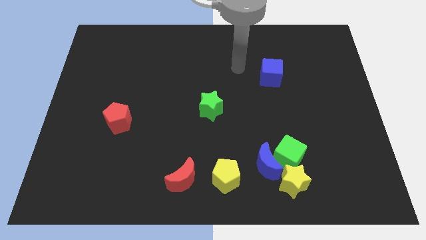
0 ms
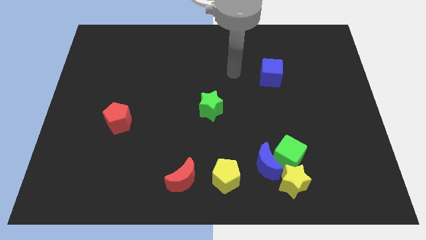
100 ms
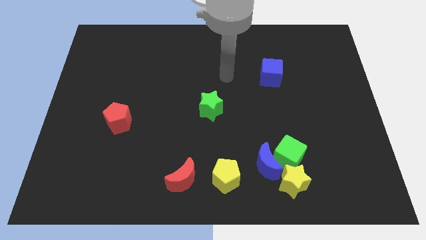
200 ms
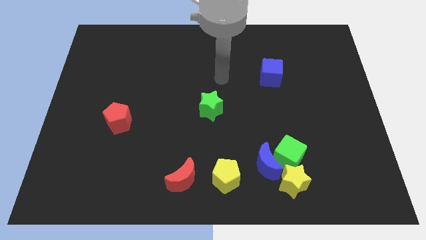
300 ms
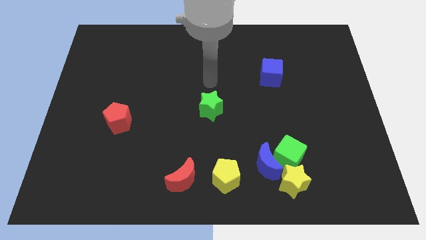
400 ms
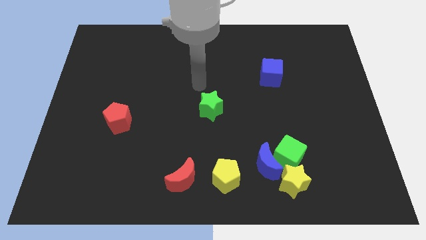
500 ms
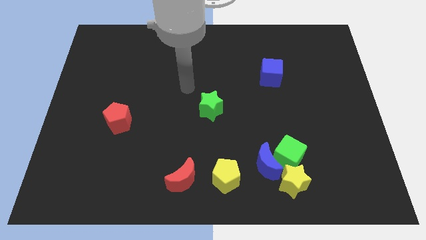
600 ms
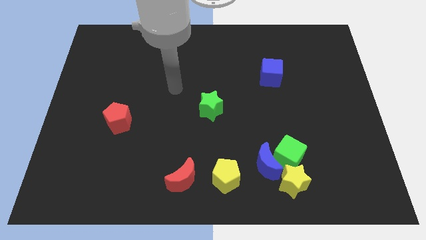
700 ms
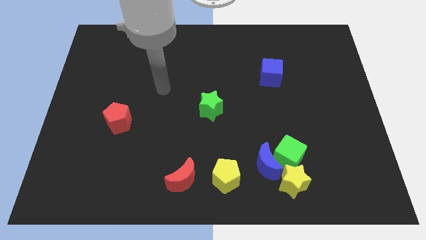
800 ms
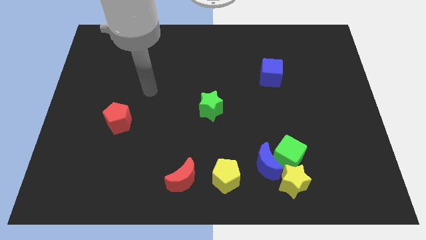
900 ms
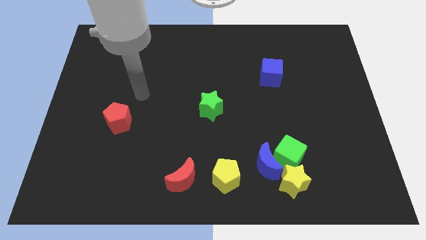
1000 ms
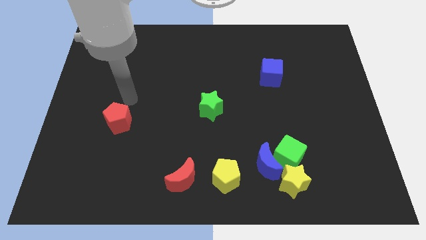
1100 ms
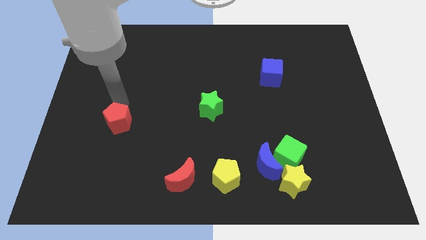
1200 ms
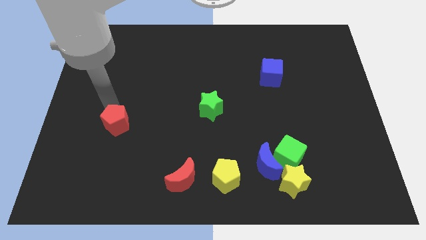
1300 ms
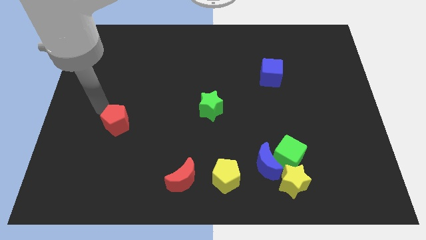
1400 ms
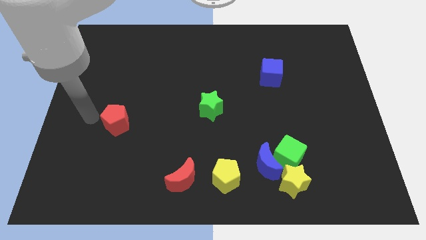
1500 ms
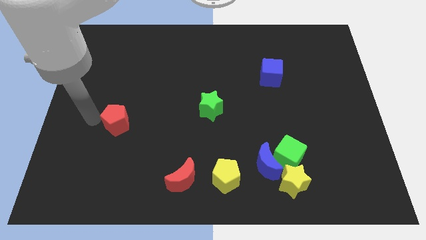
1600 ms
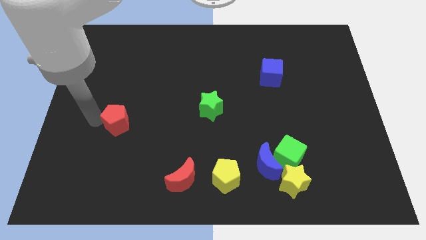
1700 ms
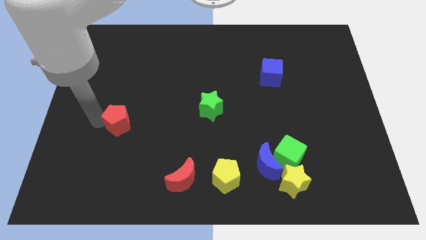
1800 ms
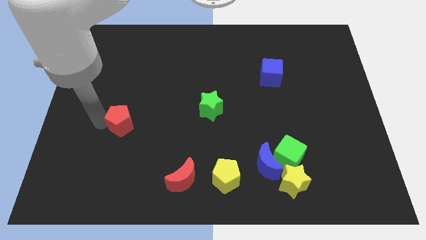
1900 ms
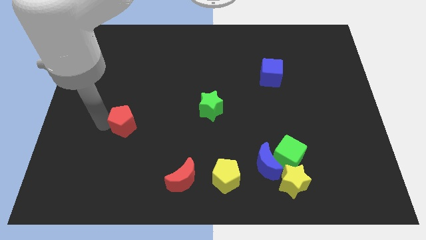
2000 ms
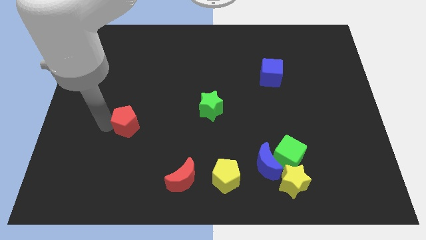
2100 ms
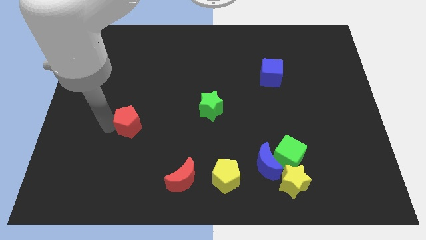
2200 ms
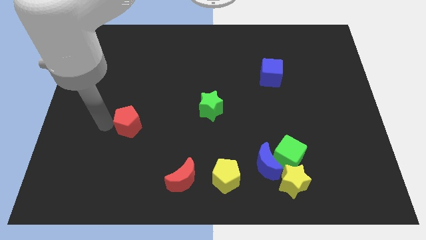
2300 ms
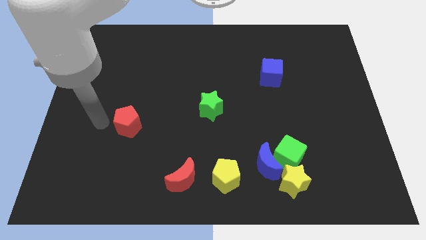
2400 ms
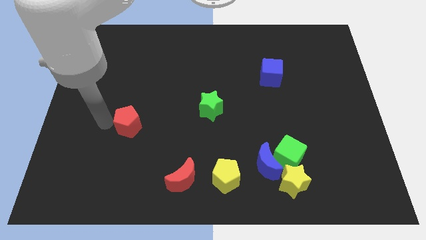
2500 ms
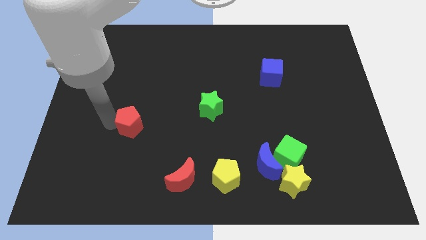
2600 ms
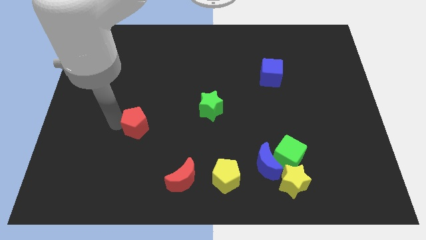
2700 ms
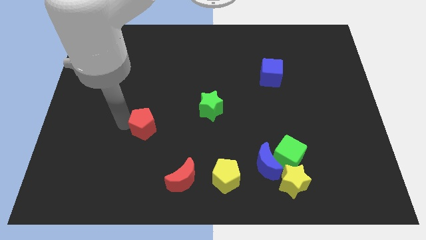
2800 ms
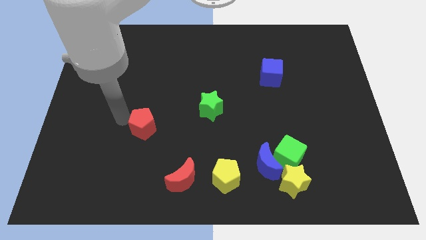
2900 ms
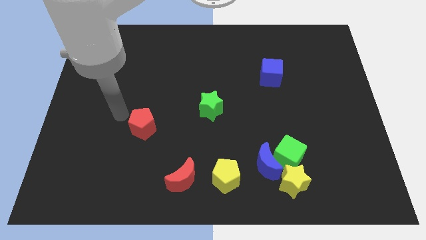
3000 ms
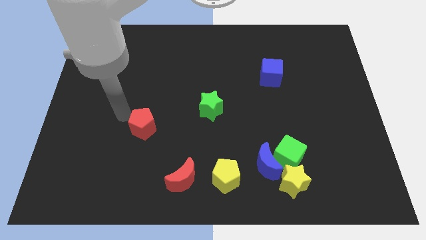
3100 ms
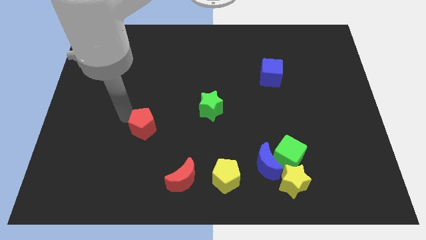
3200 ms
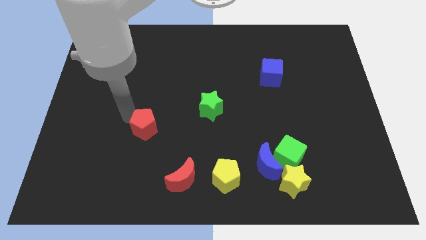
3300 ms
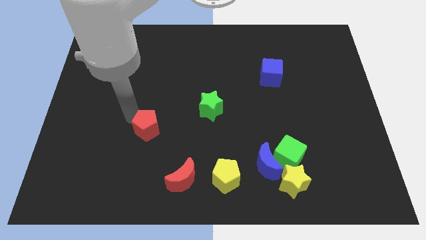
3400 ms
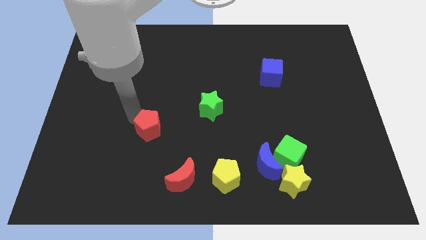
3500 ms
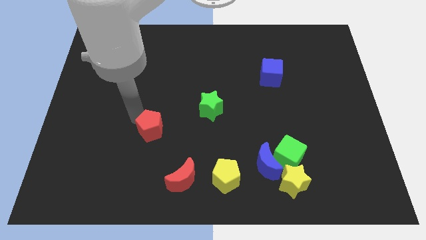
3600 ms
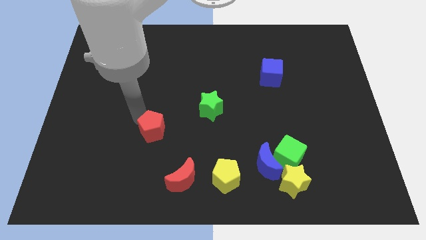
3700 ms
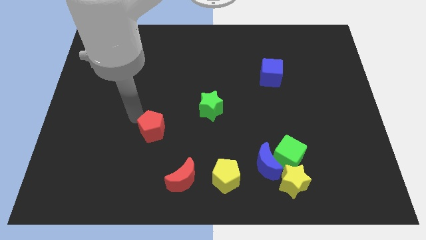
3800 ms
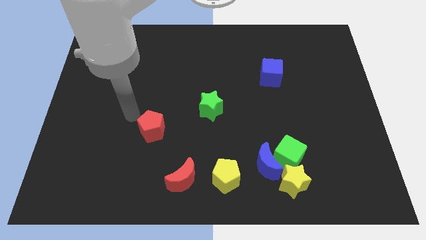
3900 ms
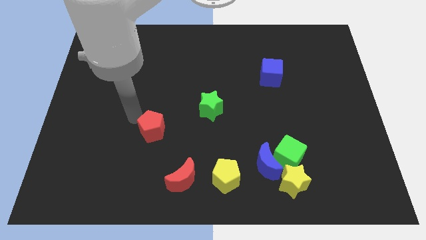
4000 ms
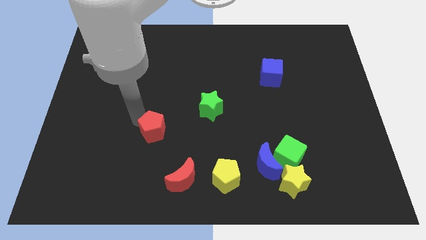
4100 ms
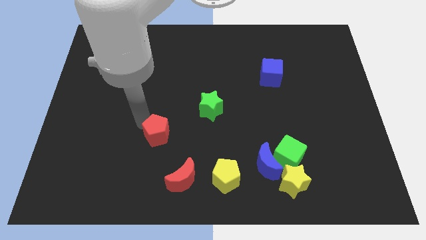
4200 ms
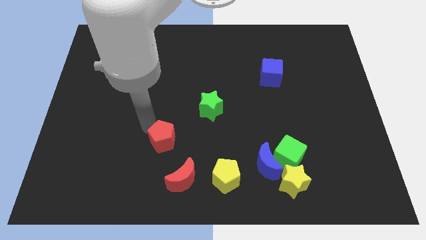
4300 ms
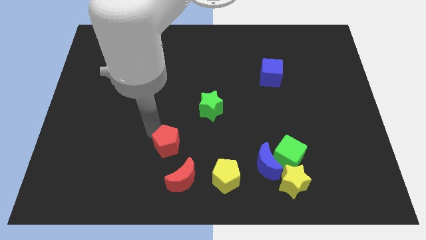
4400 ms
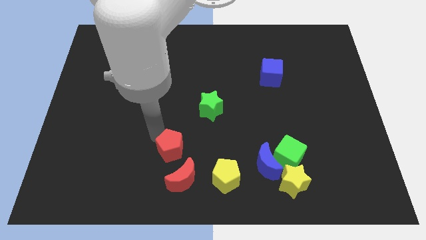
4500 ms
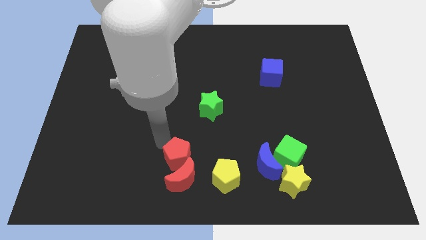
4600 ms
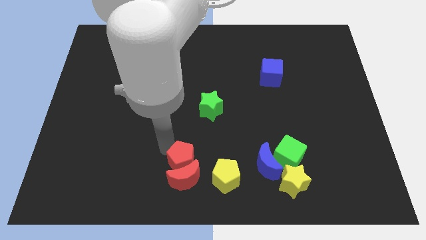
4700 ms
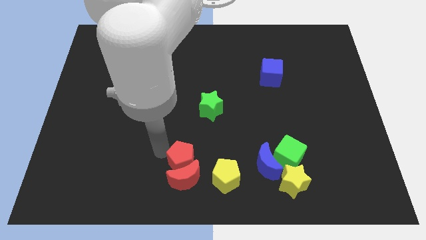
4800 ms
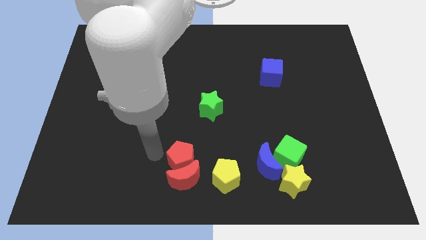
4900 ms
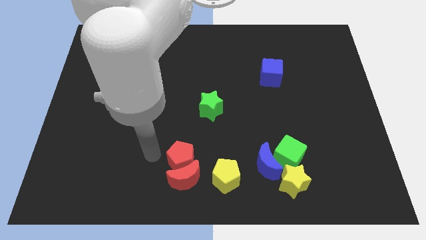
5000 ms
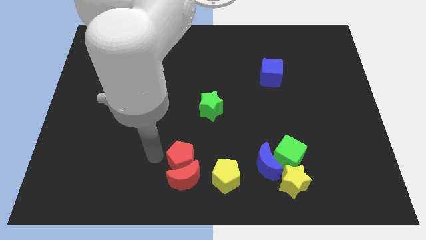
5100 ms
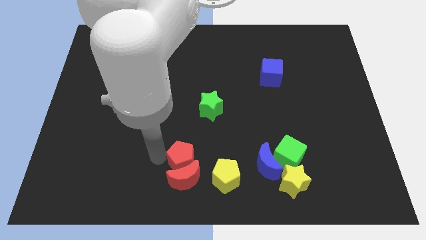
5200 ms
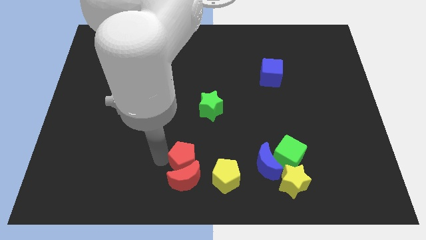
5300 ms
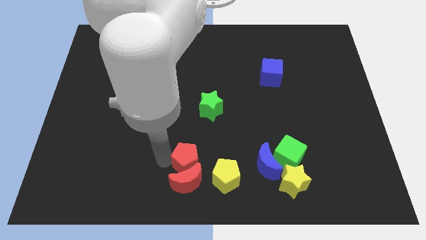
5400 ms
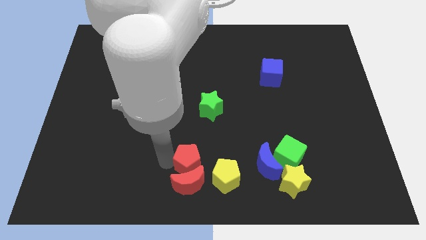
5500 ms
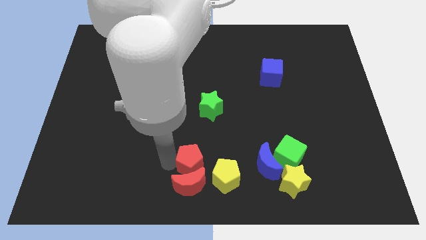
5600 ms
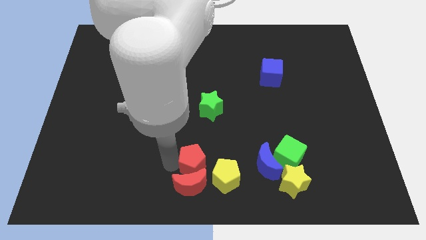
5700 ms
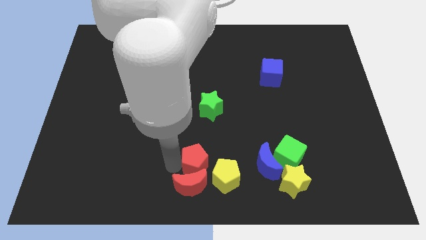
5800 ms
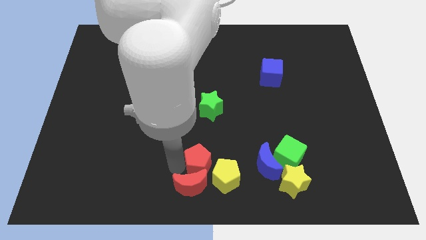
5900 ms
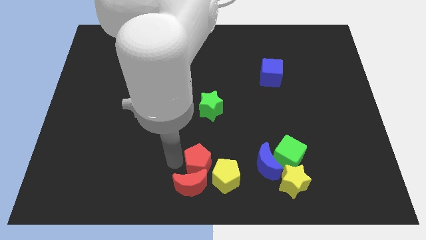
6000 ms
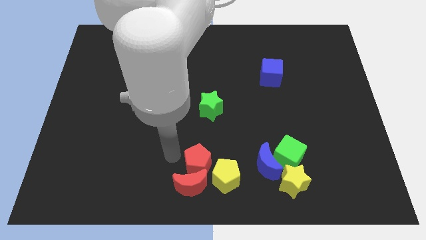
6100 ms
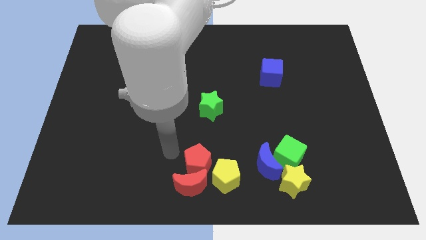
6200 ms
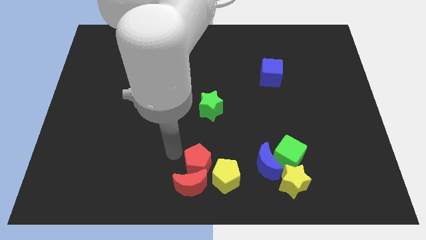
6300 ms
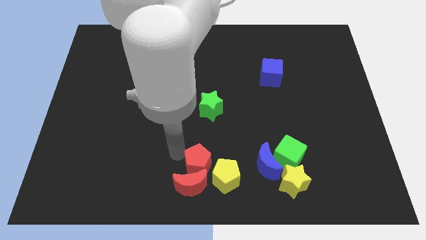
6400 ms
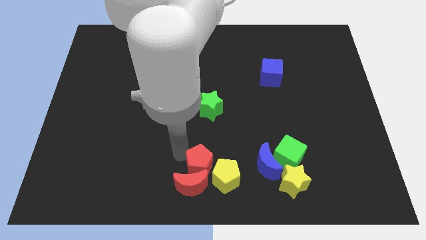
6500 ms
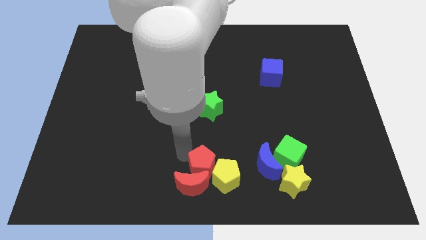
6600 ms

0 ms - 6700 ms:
push the red pentagon to the yellow pentagon
